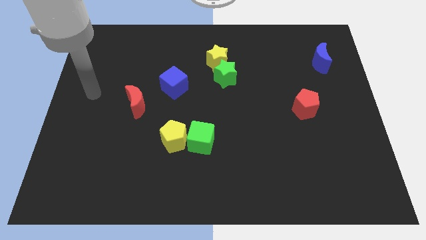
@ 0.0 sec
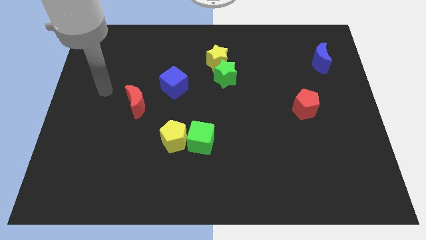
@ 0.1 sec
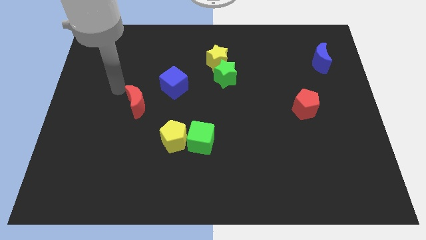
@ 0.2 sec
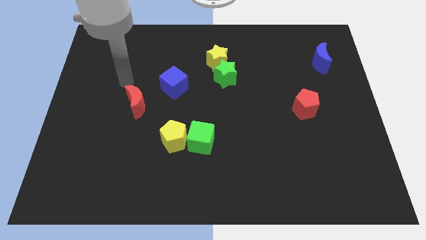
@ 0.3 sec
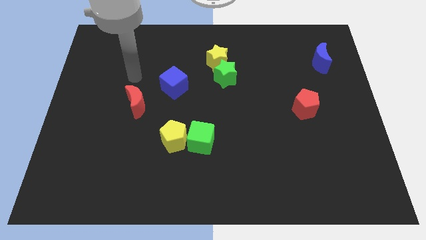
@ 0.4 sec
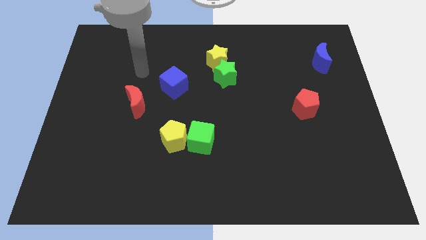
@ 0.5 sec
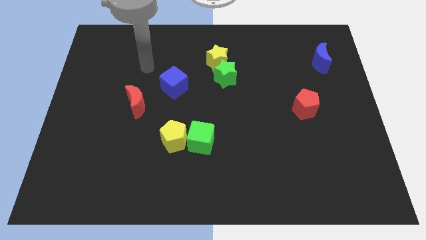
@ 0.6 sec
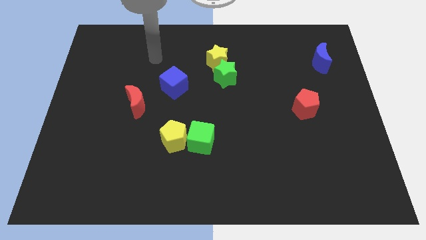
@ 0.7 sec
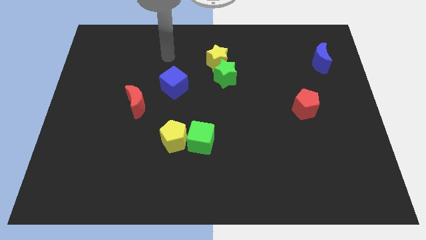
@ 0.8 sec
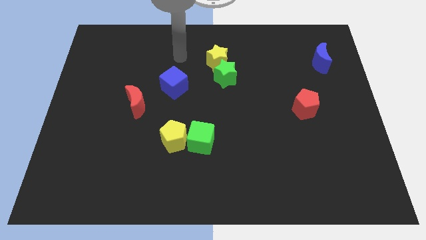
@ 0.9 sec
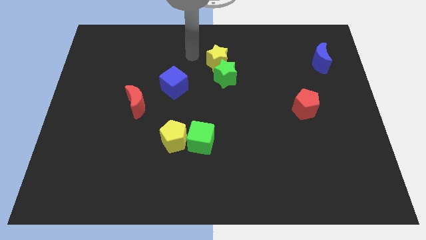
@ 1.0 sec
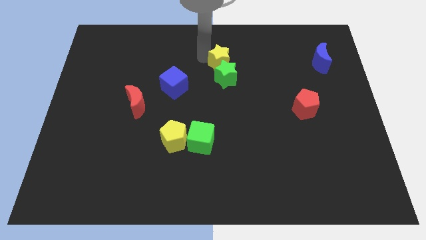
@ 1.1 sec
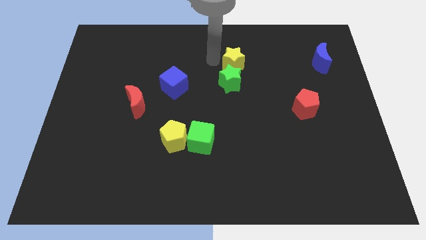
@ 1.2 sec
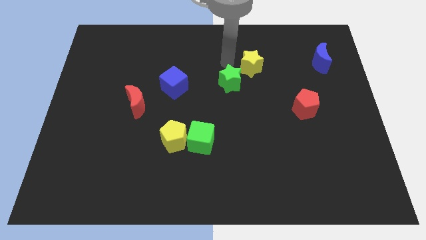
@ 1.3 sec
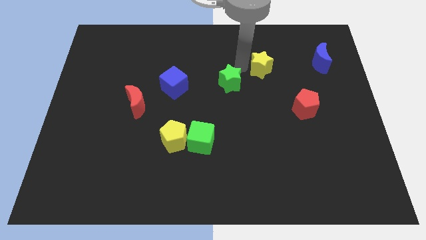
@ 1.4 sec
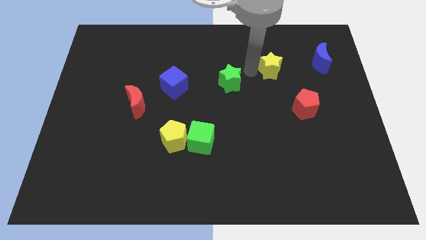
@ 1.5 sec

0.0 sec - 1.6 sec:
pull the green star apart from the yellow star

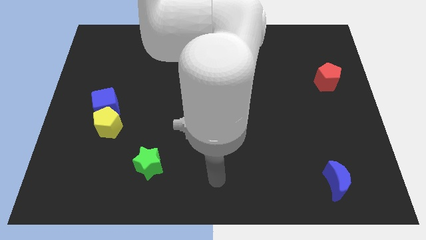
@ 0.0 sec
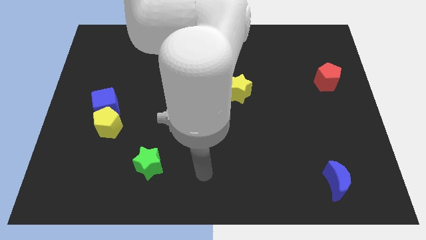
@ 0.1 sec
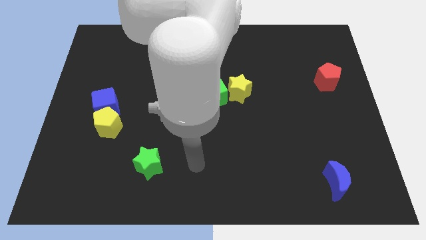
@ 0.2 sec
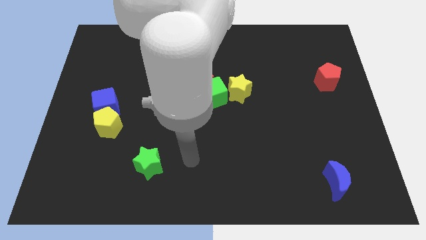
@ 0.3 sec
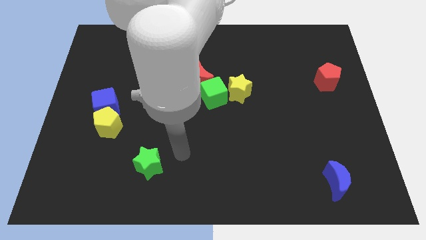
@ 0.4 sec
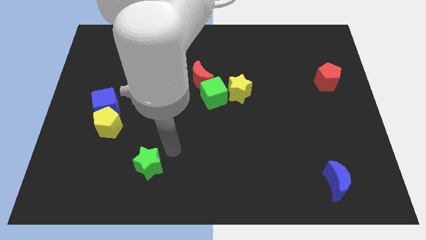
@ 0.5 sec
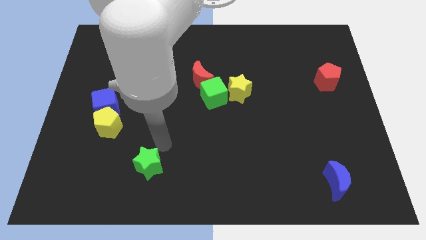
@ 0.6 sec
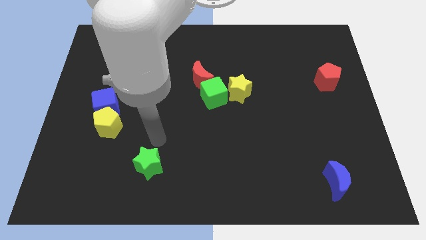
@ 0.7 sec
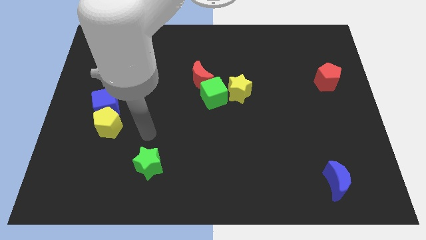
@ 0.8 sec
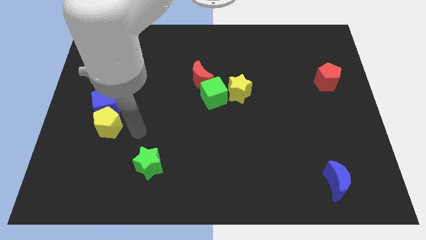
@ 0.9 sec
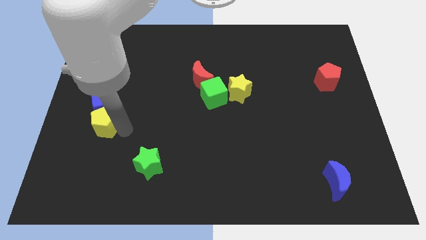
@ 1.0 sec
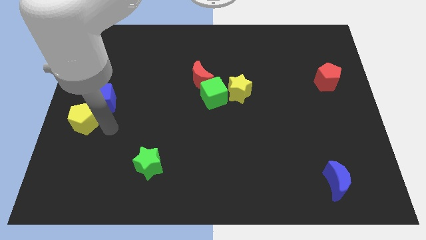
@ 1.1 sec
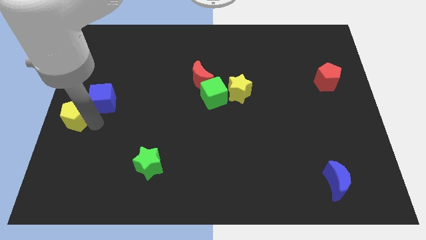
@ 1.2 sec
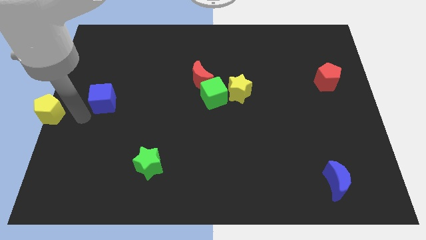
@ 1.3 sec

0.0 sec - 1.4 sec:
separate the blue cube from the yellow pentagon

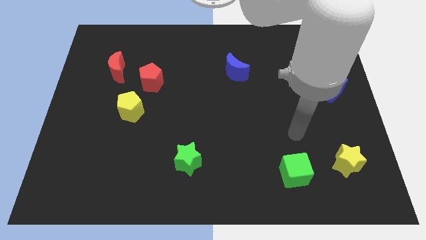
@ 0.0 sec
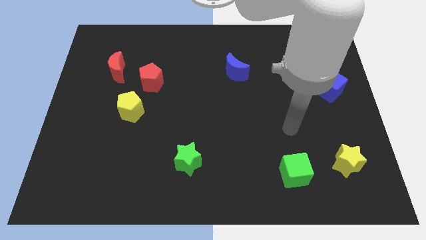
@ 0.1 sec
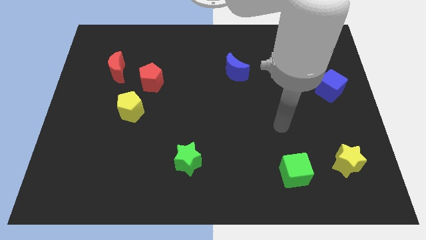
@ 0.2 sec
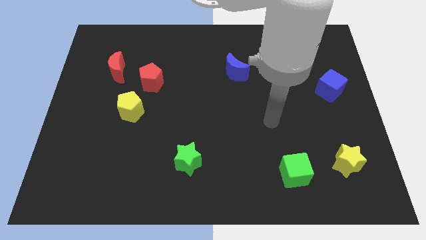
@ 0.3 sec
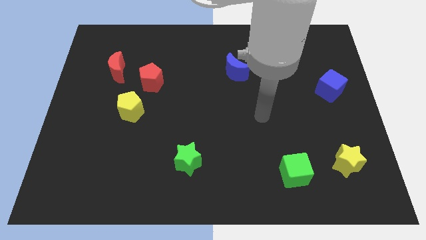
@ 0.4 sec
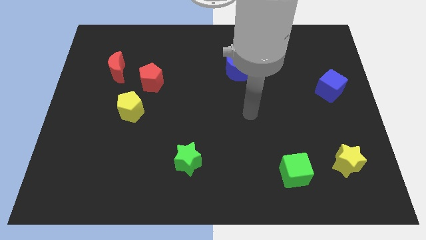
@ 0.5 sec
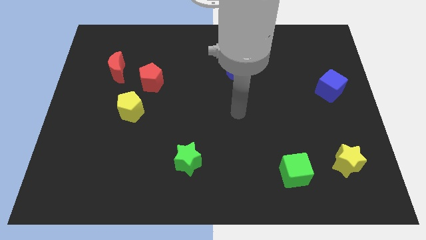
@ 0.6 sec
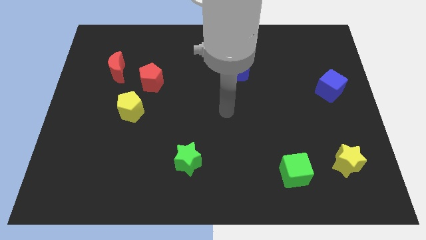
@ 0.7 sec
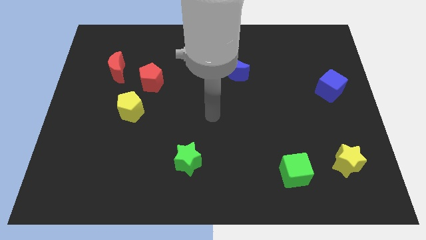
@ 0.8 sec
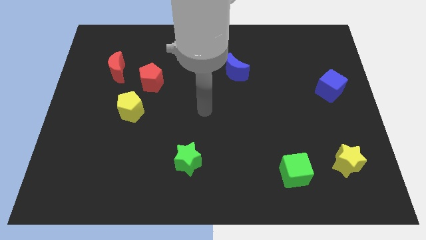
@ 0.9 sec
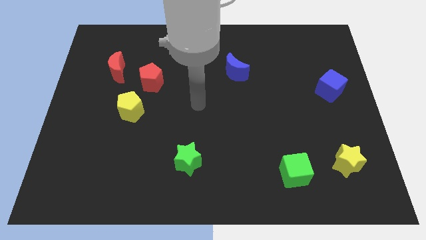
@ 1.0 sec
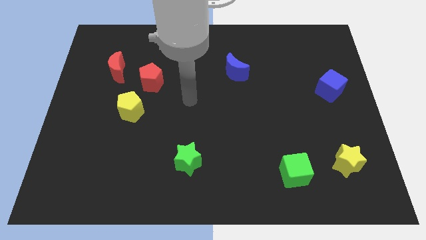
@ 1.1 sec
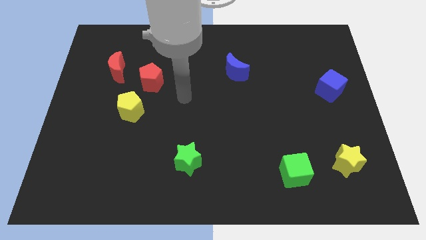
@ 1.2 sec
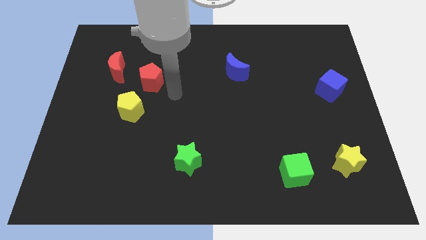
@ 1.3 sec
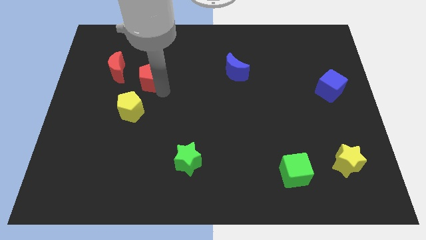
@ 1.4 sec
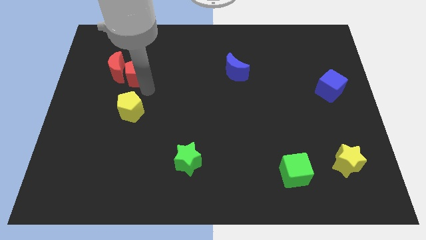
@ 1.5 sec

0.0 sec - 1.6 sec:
separate the yellow pentagon from the red pentagon

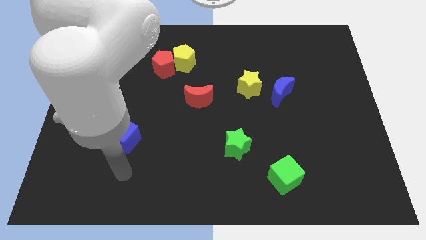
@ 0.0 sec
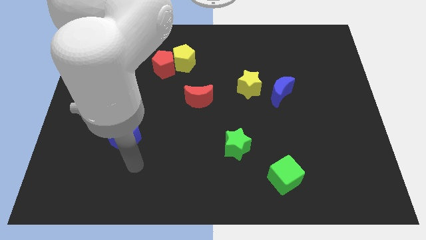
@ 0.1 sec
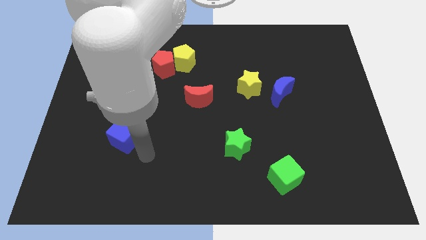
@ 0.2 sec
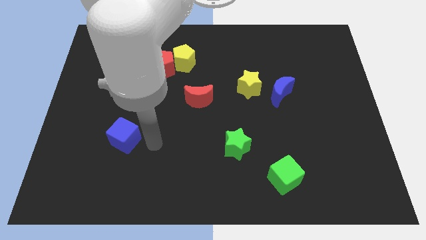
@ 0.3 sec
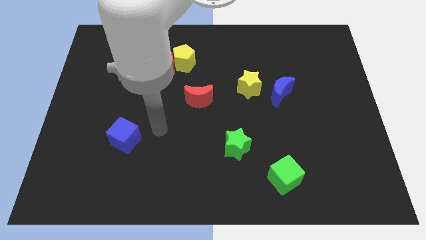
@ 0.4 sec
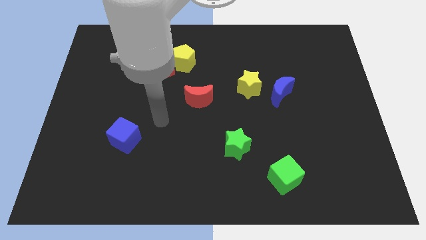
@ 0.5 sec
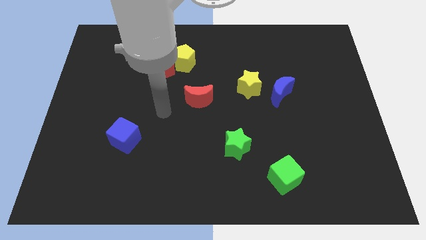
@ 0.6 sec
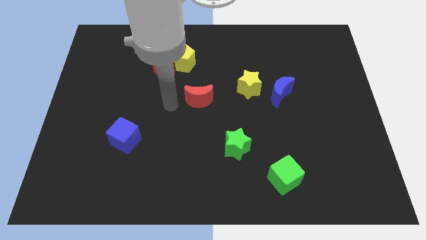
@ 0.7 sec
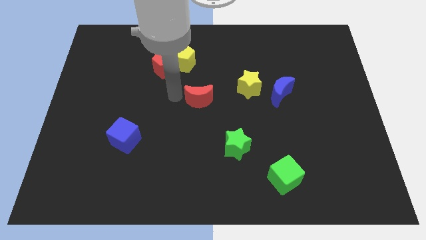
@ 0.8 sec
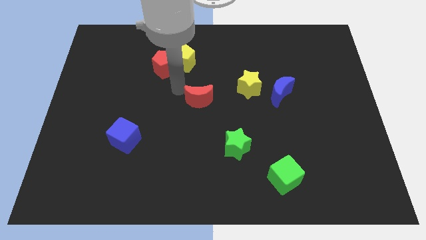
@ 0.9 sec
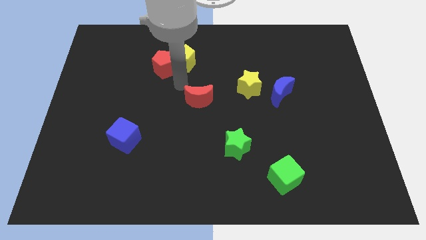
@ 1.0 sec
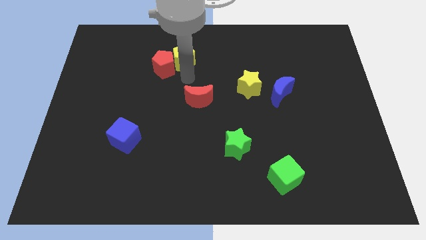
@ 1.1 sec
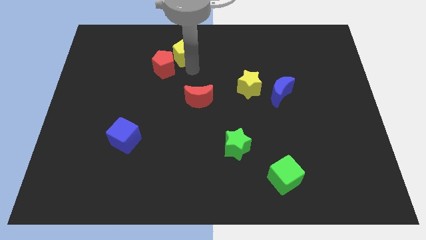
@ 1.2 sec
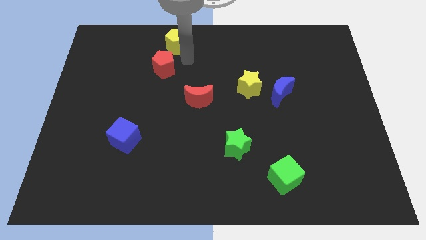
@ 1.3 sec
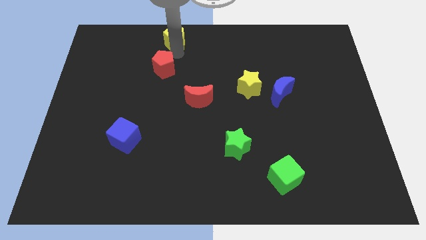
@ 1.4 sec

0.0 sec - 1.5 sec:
pull the red pentagon apart from the yellow pentagon

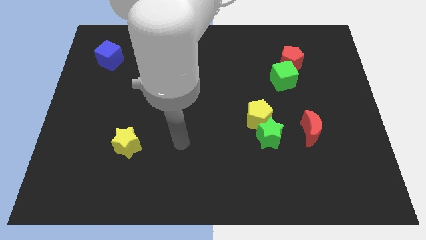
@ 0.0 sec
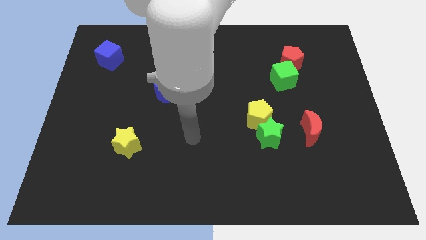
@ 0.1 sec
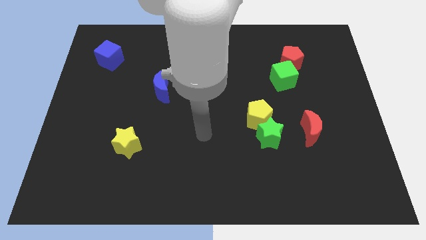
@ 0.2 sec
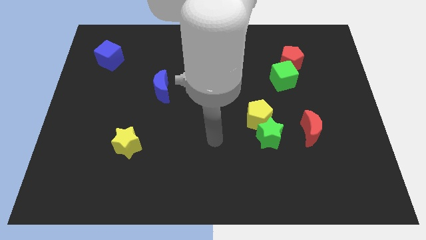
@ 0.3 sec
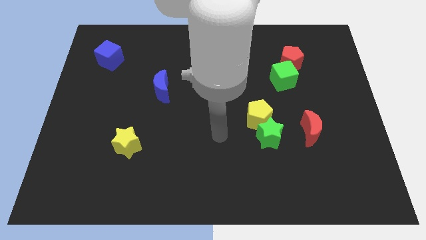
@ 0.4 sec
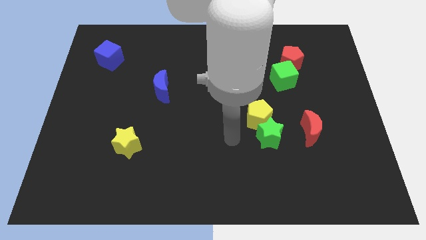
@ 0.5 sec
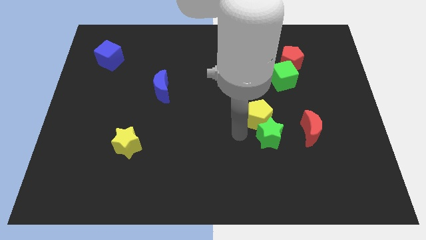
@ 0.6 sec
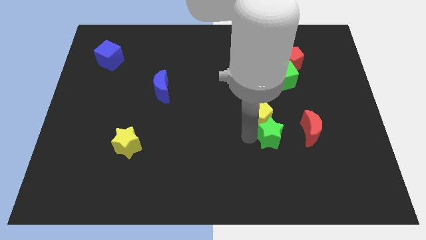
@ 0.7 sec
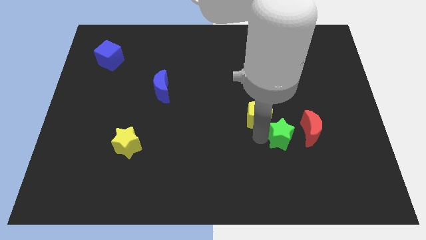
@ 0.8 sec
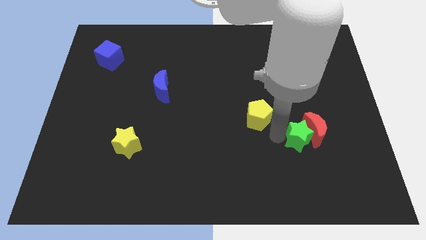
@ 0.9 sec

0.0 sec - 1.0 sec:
move the yellow pentagon away from the green star

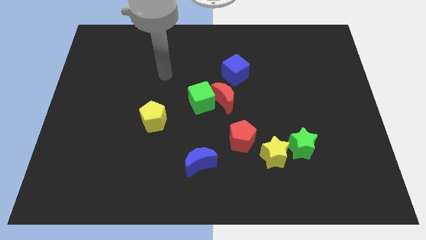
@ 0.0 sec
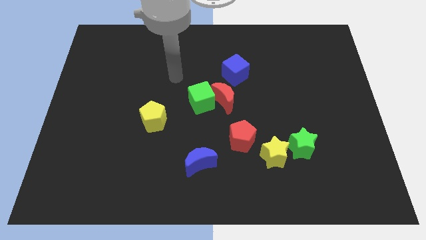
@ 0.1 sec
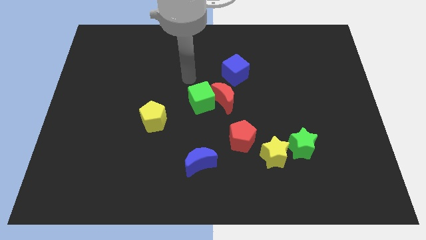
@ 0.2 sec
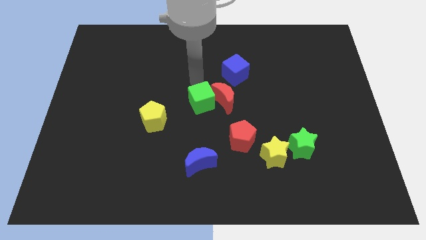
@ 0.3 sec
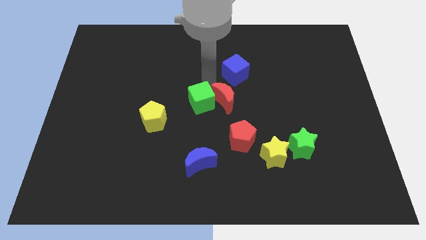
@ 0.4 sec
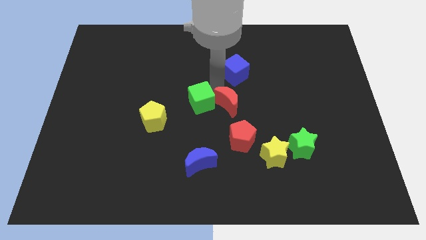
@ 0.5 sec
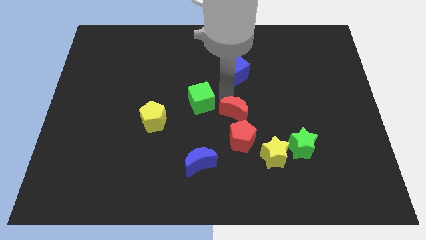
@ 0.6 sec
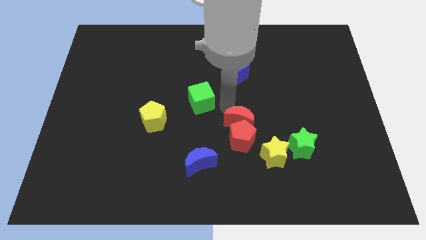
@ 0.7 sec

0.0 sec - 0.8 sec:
move the green cube away from the red moon

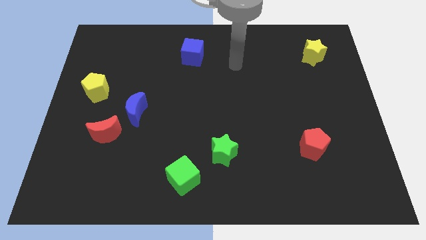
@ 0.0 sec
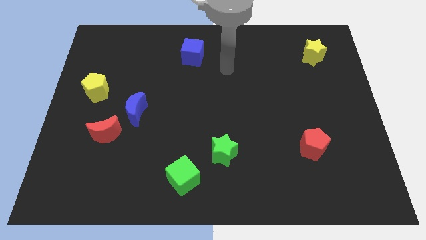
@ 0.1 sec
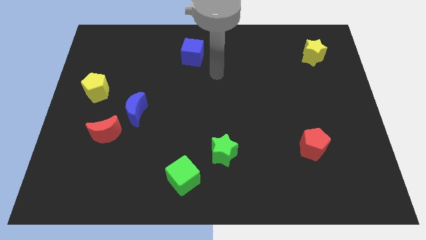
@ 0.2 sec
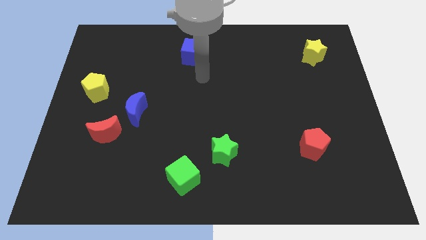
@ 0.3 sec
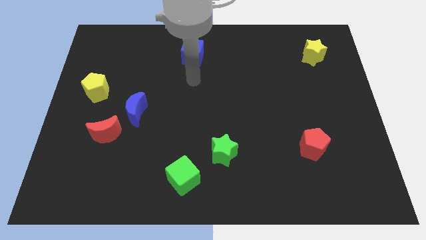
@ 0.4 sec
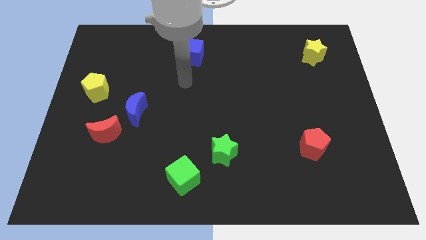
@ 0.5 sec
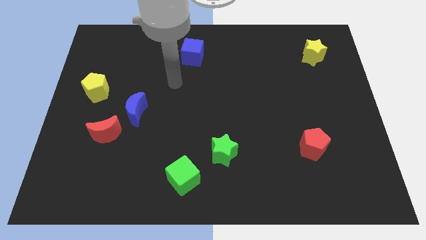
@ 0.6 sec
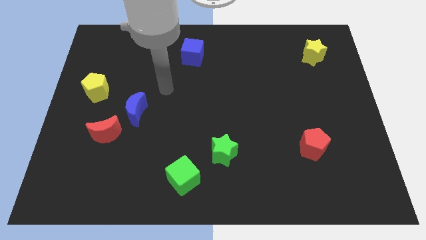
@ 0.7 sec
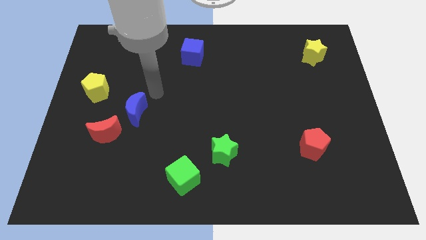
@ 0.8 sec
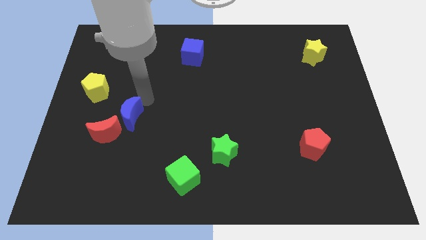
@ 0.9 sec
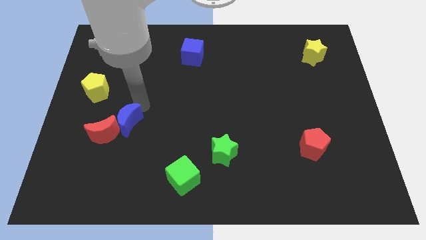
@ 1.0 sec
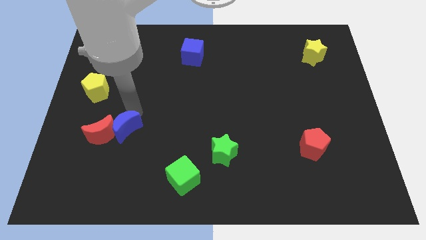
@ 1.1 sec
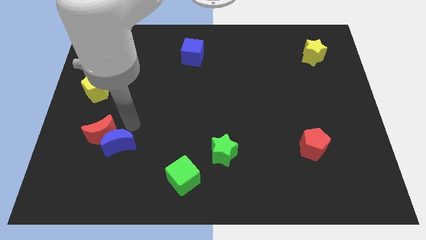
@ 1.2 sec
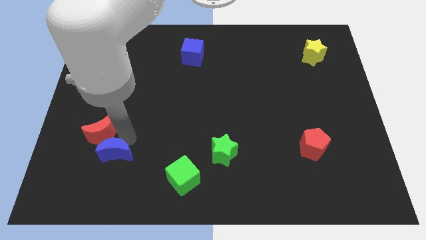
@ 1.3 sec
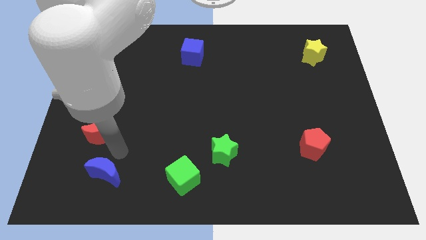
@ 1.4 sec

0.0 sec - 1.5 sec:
pull the red moon apart from the blue moon
